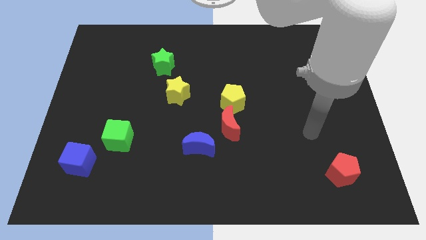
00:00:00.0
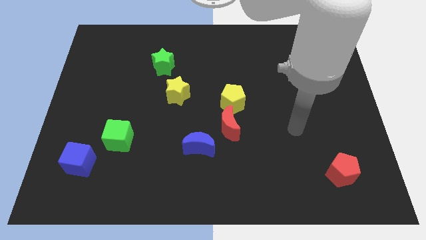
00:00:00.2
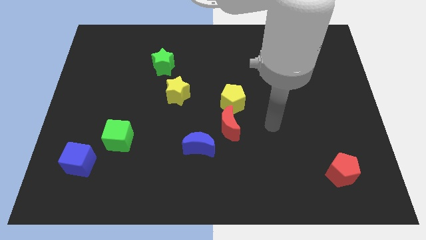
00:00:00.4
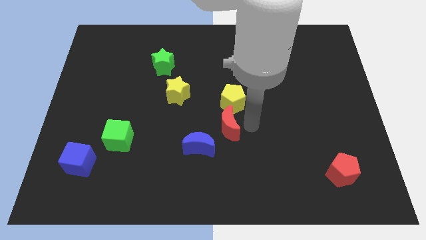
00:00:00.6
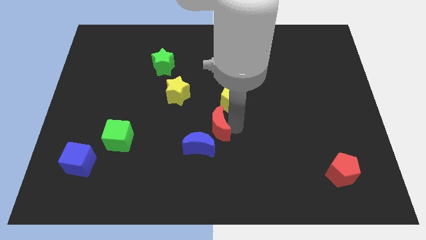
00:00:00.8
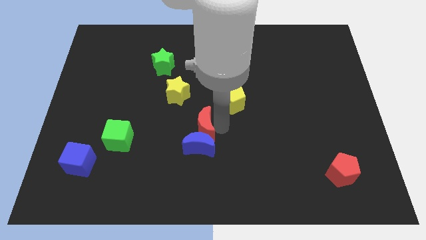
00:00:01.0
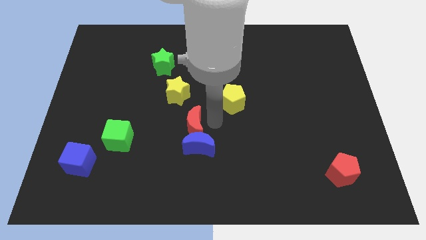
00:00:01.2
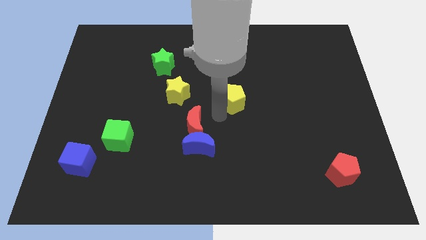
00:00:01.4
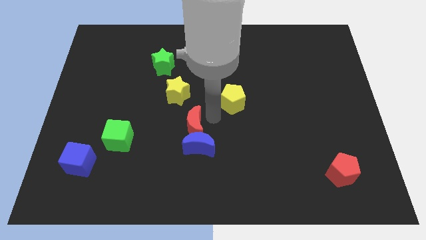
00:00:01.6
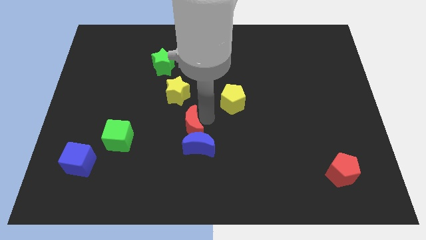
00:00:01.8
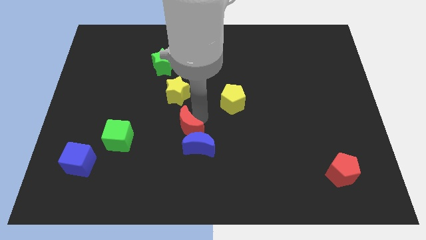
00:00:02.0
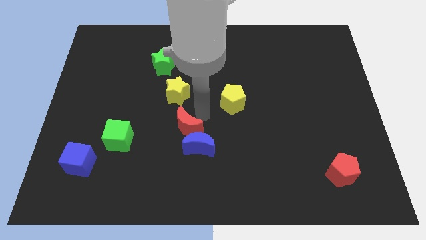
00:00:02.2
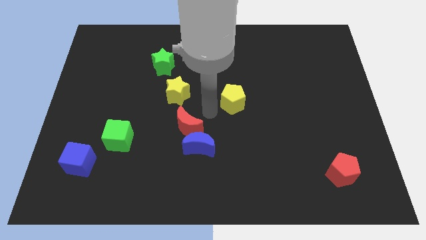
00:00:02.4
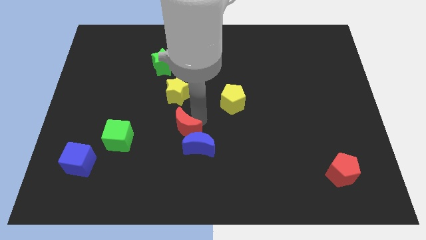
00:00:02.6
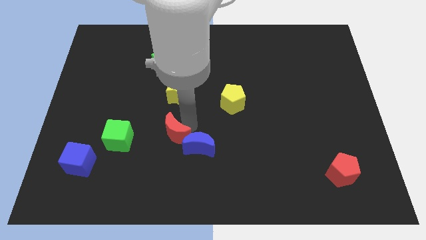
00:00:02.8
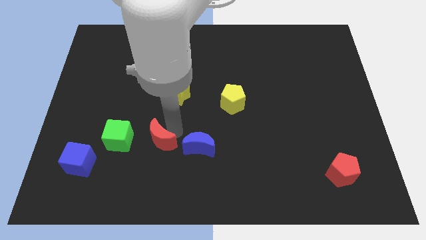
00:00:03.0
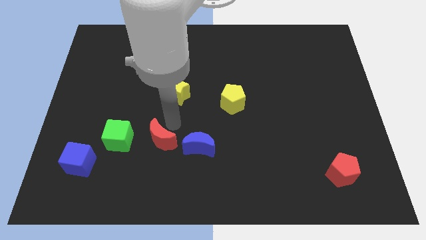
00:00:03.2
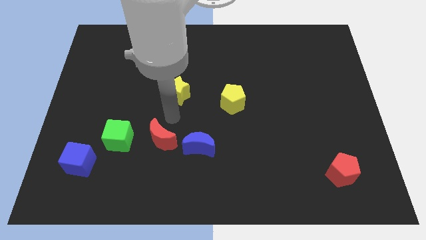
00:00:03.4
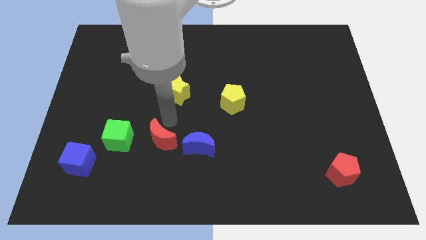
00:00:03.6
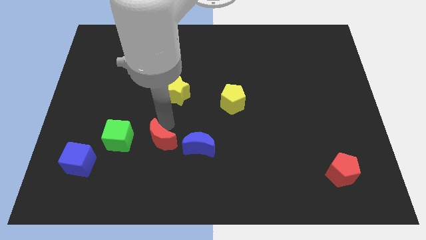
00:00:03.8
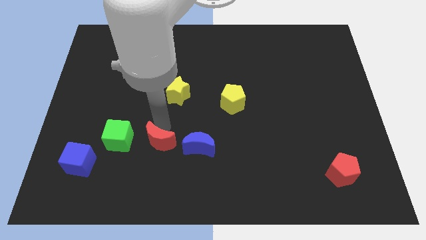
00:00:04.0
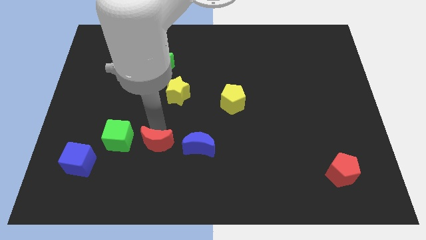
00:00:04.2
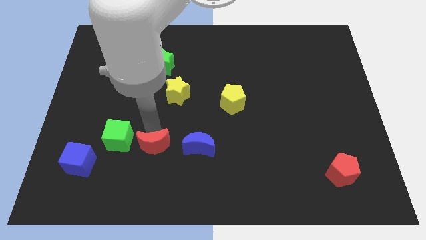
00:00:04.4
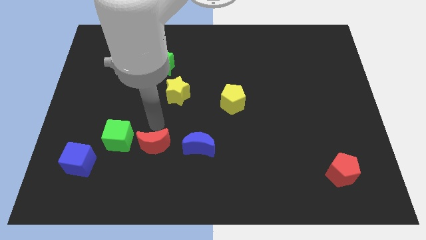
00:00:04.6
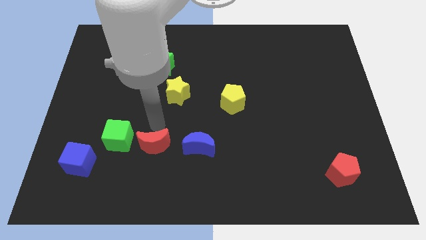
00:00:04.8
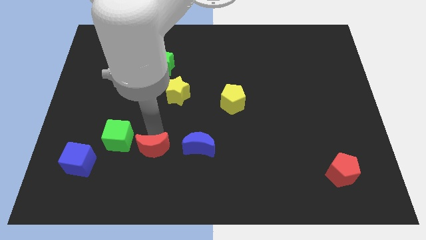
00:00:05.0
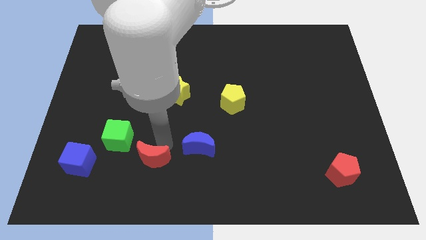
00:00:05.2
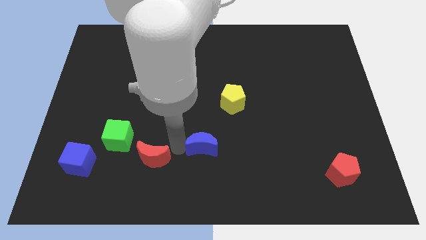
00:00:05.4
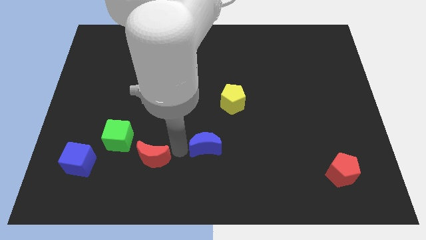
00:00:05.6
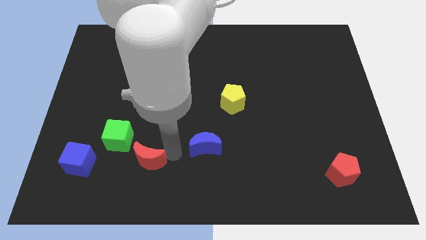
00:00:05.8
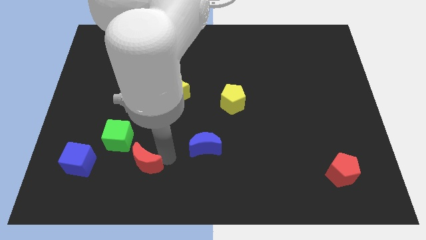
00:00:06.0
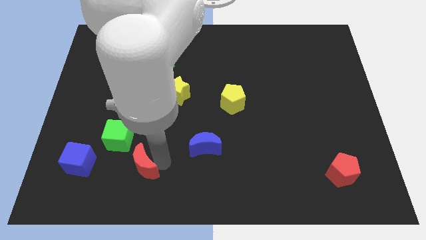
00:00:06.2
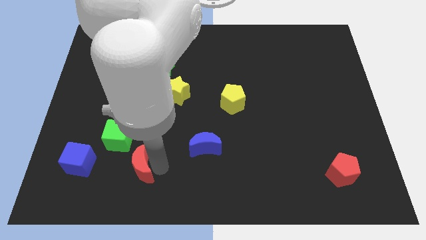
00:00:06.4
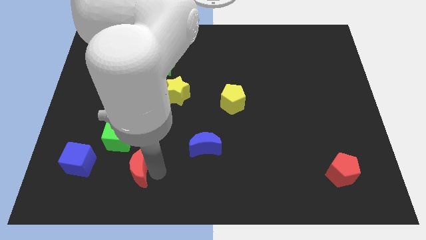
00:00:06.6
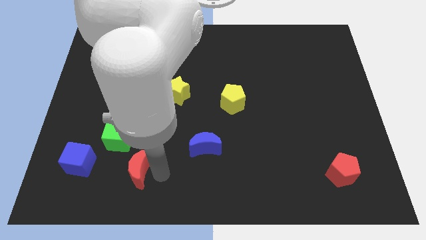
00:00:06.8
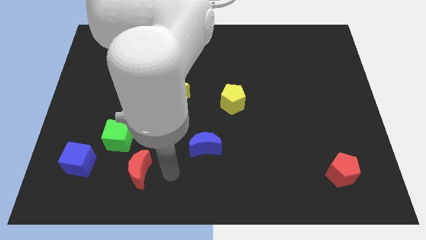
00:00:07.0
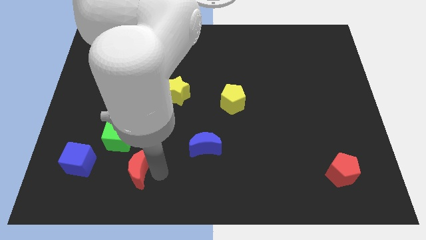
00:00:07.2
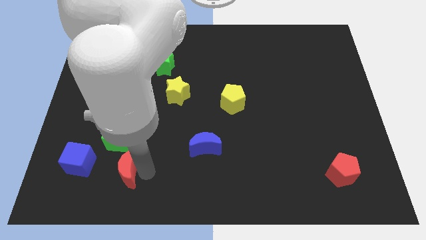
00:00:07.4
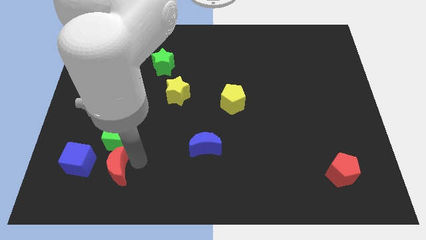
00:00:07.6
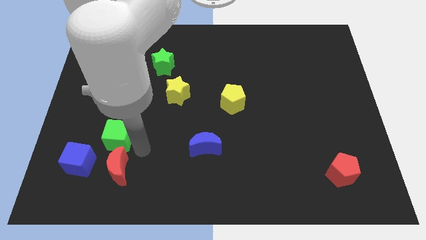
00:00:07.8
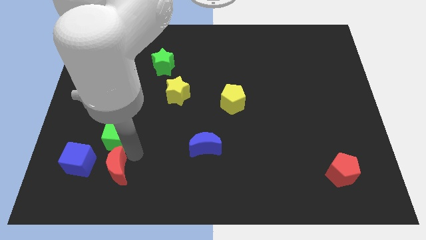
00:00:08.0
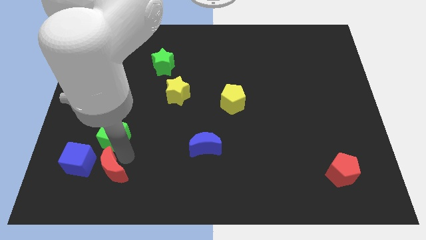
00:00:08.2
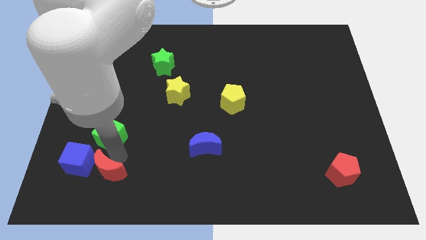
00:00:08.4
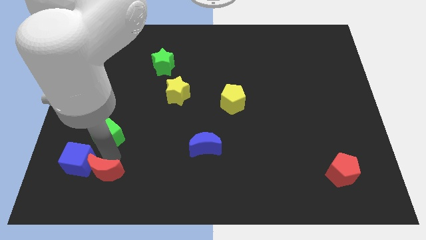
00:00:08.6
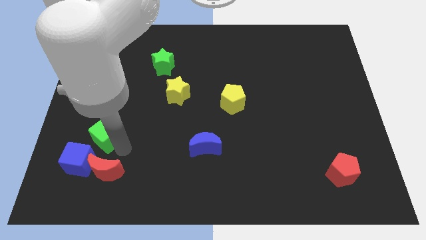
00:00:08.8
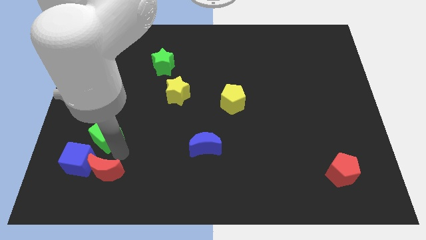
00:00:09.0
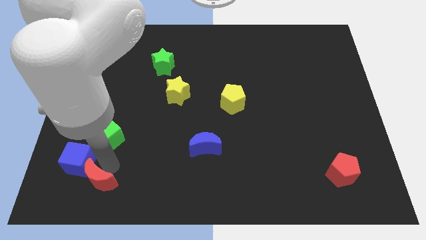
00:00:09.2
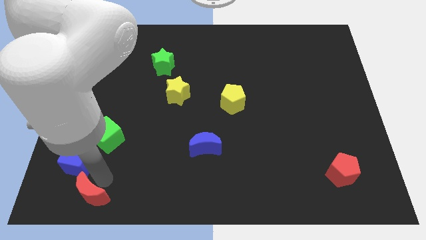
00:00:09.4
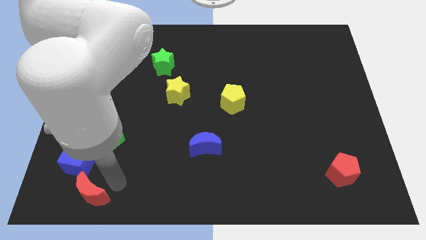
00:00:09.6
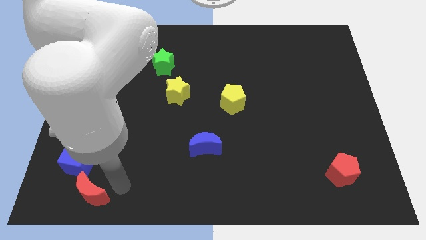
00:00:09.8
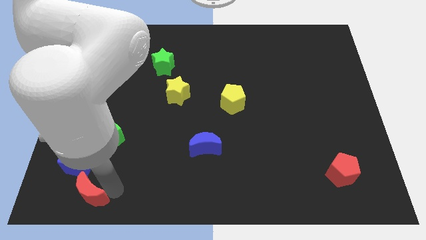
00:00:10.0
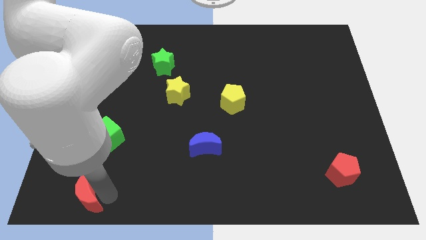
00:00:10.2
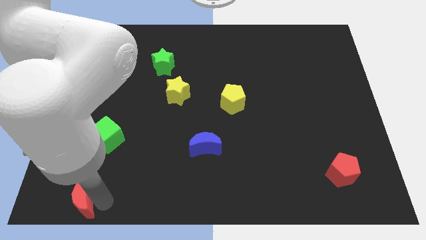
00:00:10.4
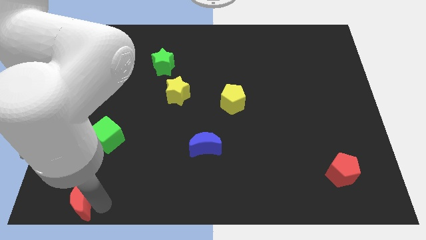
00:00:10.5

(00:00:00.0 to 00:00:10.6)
push the red moon to the bottom left

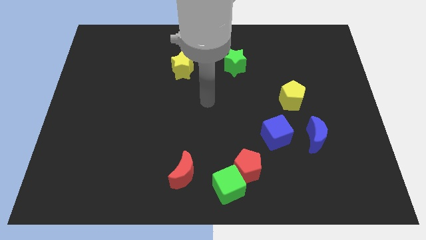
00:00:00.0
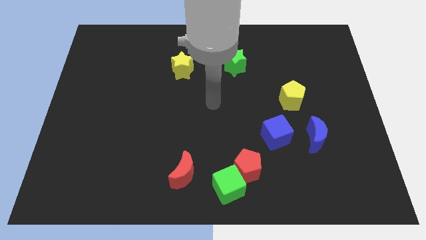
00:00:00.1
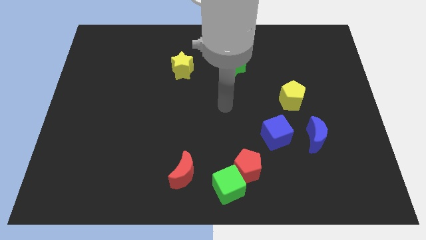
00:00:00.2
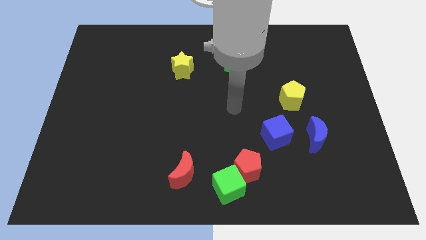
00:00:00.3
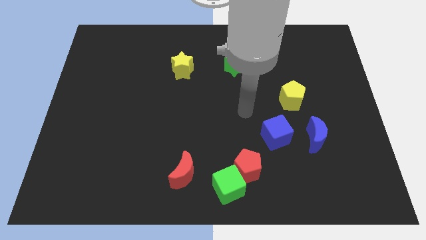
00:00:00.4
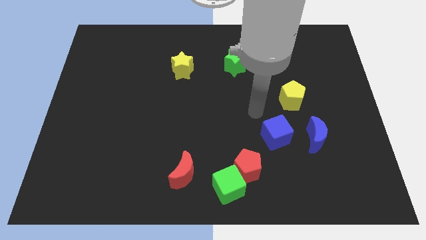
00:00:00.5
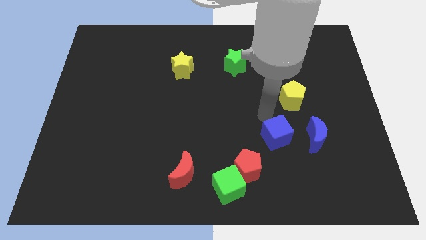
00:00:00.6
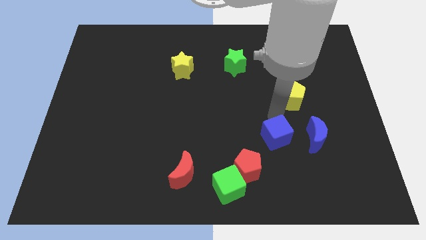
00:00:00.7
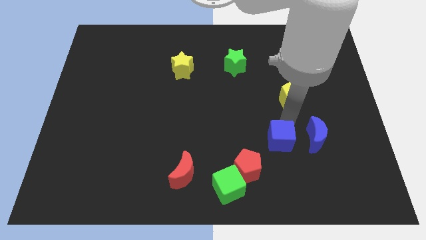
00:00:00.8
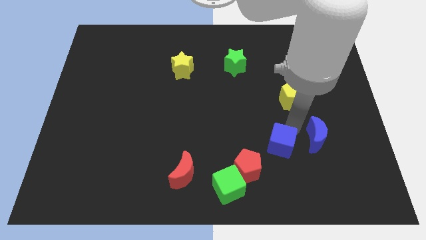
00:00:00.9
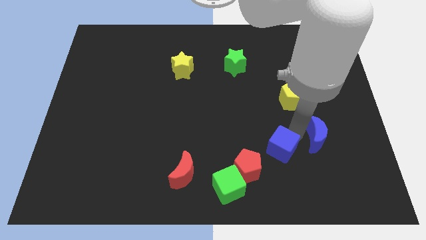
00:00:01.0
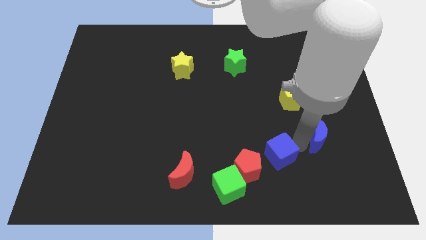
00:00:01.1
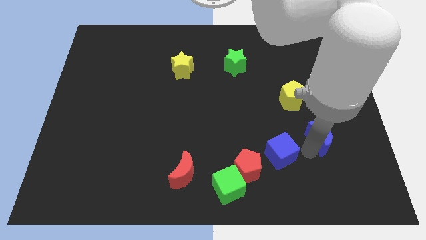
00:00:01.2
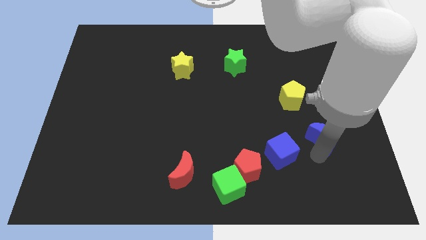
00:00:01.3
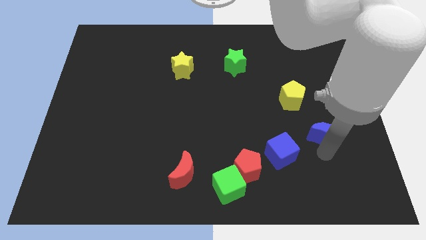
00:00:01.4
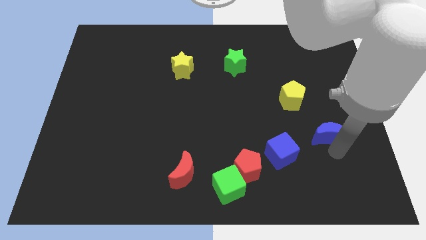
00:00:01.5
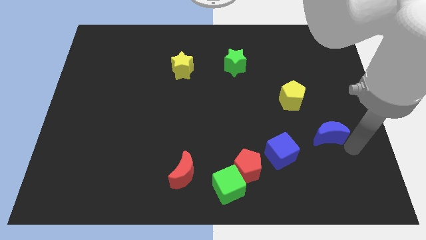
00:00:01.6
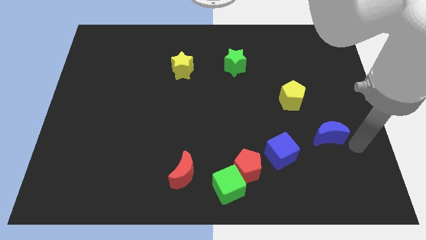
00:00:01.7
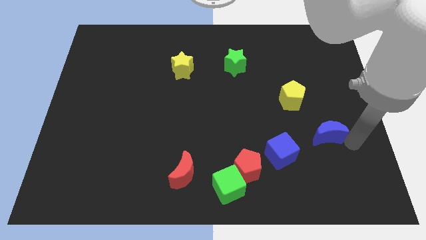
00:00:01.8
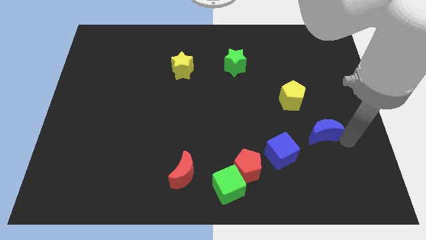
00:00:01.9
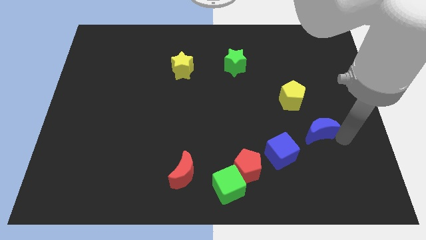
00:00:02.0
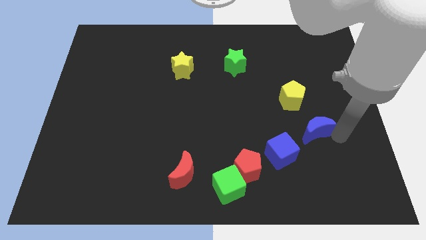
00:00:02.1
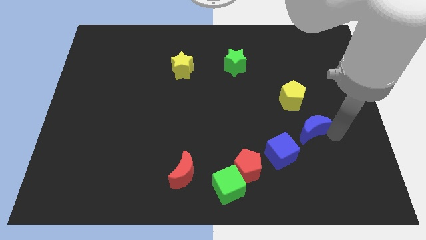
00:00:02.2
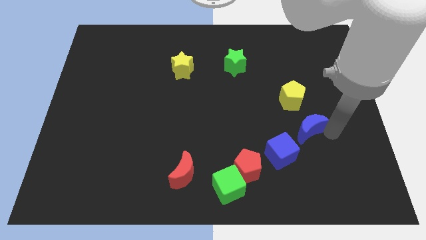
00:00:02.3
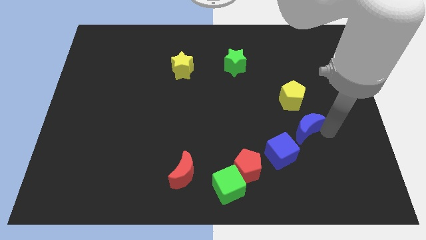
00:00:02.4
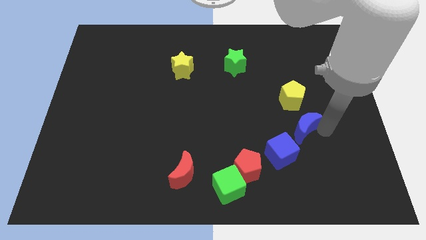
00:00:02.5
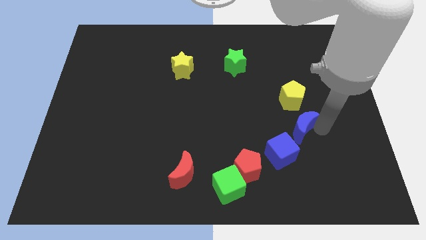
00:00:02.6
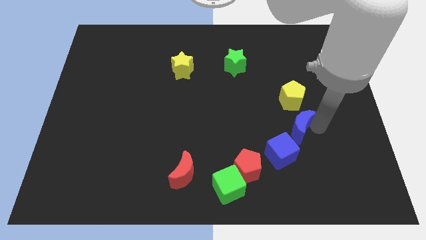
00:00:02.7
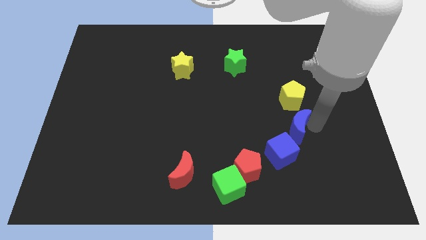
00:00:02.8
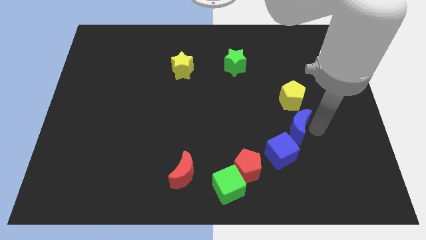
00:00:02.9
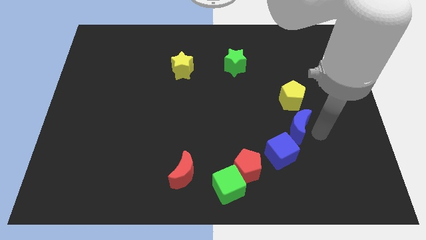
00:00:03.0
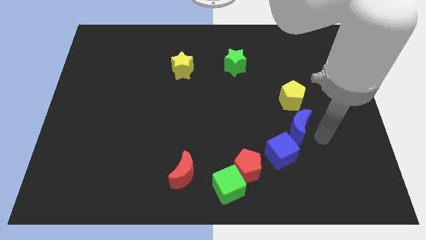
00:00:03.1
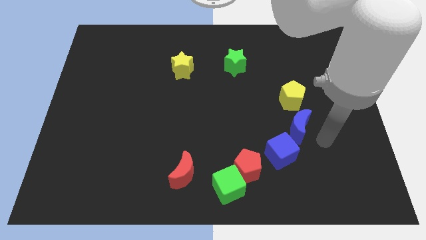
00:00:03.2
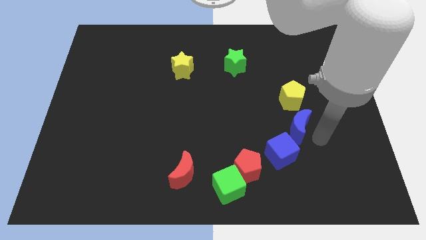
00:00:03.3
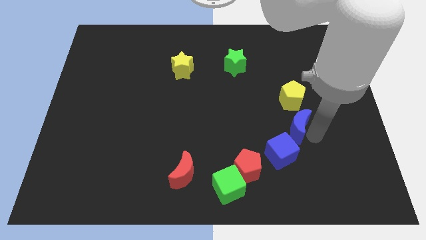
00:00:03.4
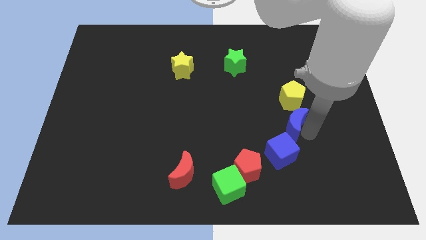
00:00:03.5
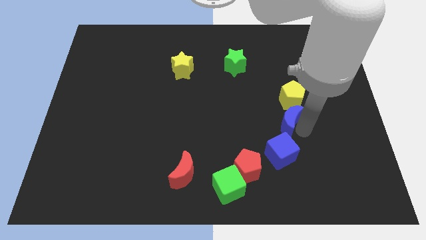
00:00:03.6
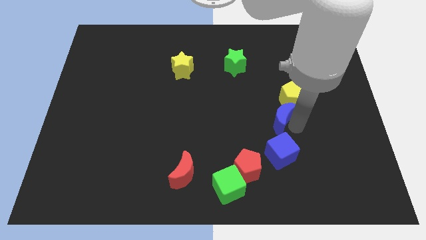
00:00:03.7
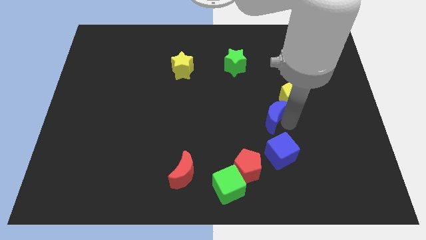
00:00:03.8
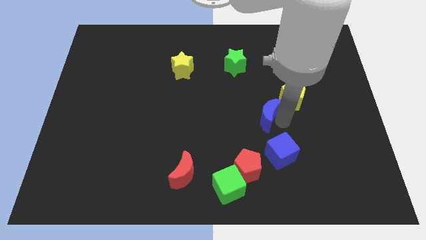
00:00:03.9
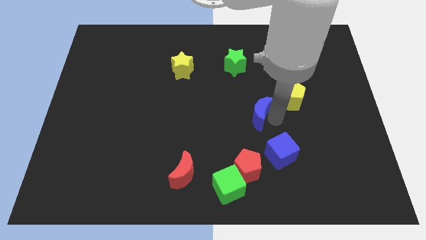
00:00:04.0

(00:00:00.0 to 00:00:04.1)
move the blue moon to the center of the board
